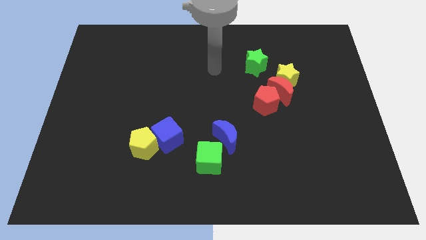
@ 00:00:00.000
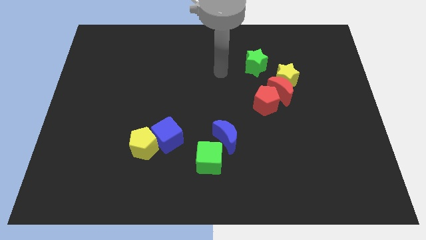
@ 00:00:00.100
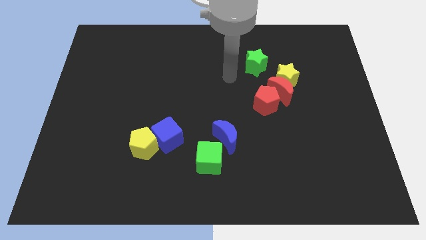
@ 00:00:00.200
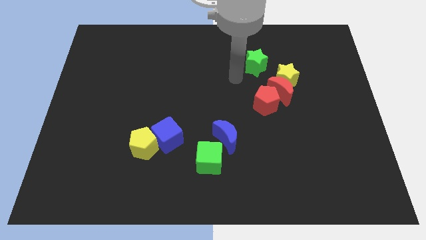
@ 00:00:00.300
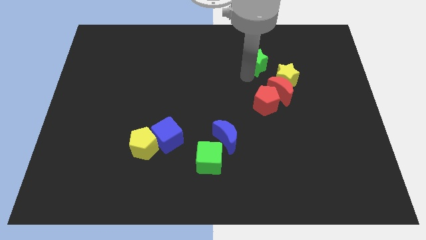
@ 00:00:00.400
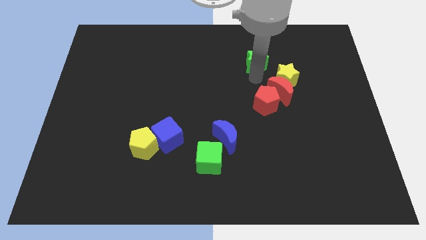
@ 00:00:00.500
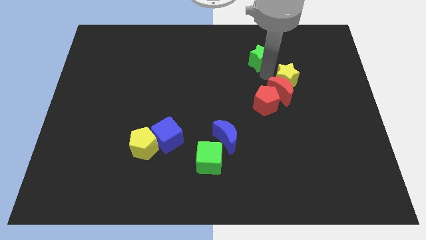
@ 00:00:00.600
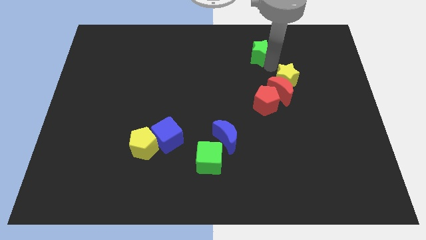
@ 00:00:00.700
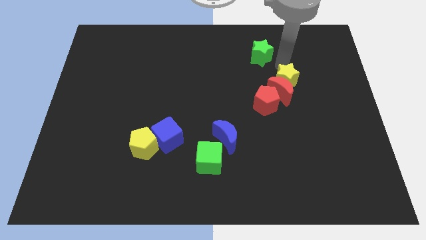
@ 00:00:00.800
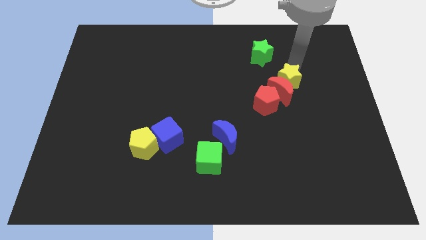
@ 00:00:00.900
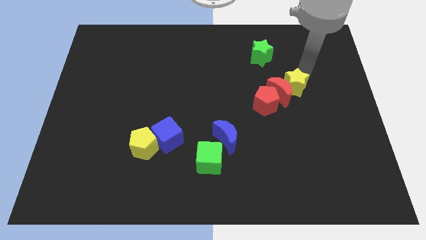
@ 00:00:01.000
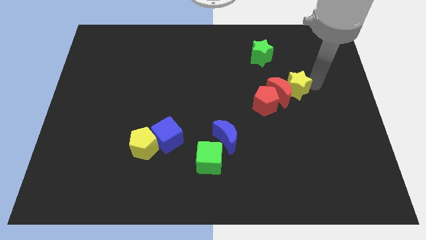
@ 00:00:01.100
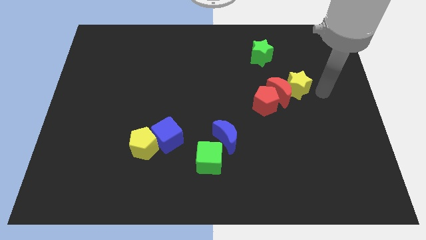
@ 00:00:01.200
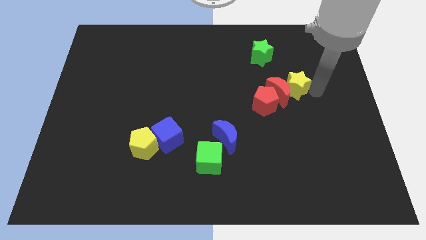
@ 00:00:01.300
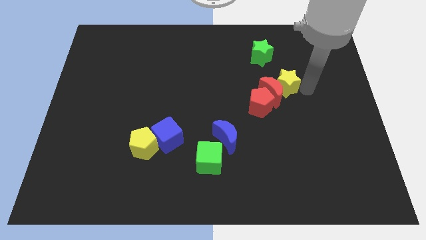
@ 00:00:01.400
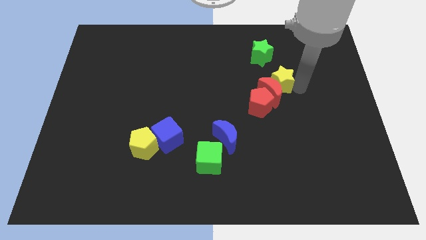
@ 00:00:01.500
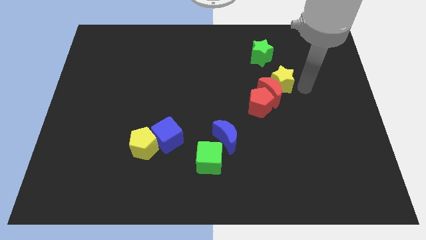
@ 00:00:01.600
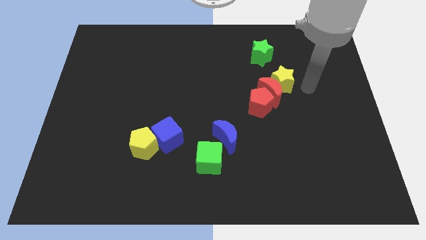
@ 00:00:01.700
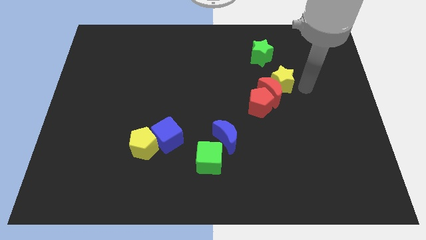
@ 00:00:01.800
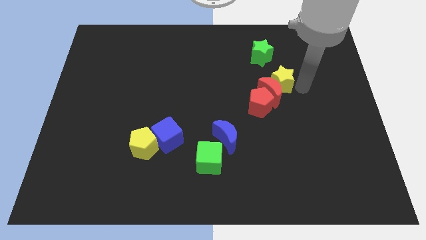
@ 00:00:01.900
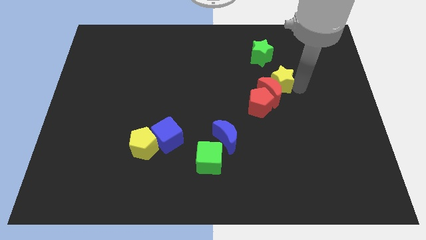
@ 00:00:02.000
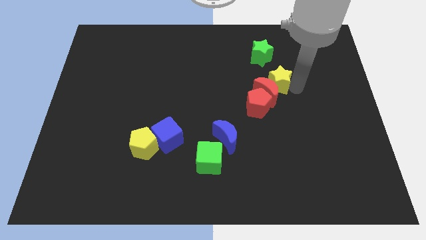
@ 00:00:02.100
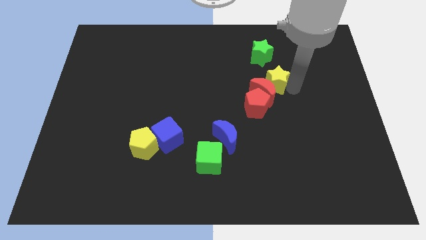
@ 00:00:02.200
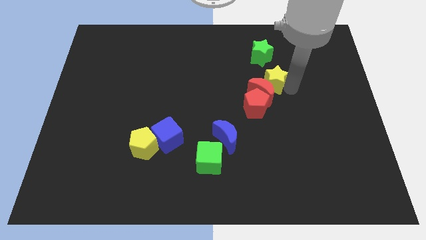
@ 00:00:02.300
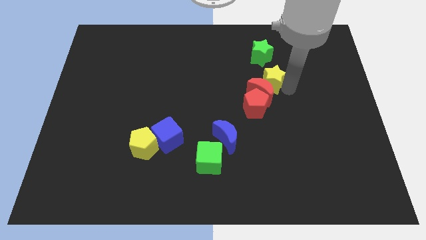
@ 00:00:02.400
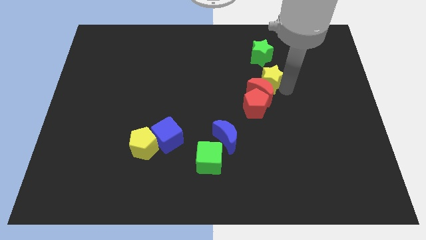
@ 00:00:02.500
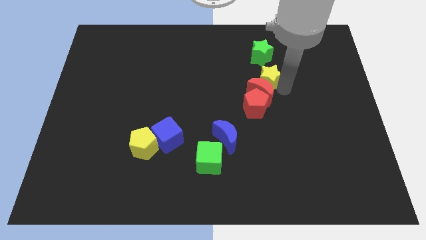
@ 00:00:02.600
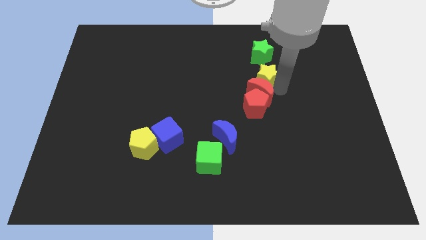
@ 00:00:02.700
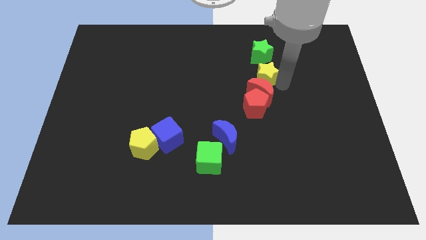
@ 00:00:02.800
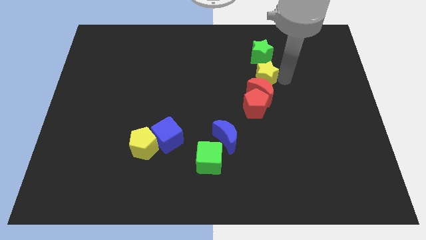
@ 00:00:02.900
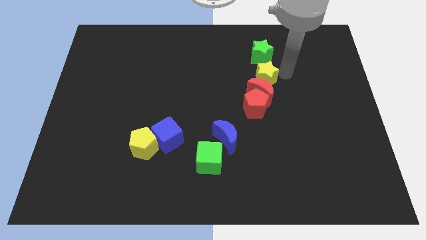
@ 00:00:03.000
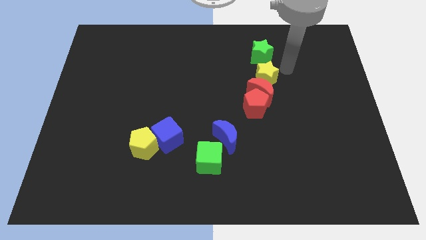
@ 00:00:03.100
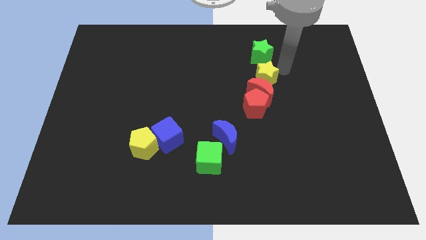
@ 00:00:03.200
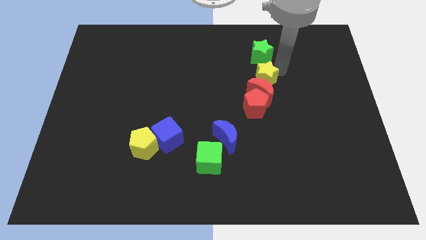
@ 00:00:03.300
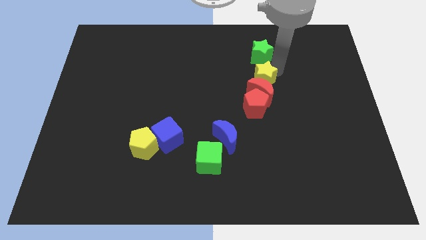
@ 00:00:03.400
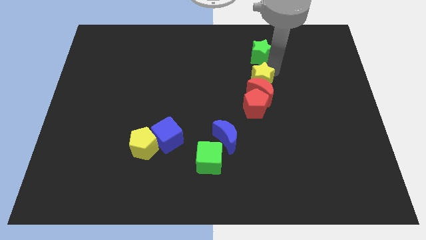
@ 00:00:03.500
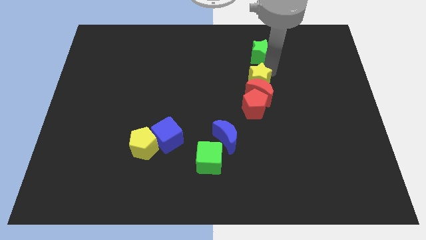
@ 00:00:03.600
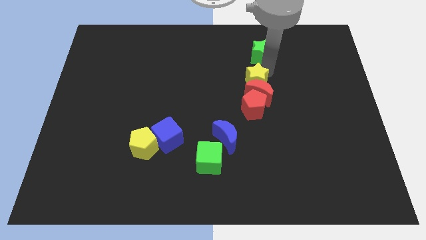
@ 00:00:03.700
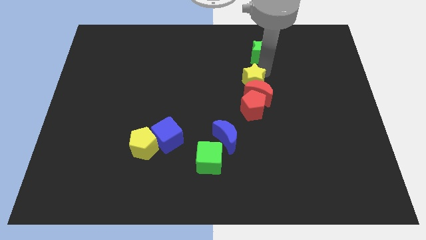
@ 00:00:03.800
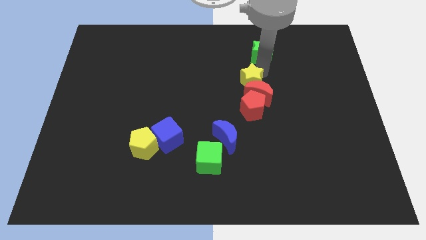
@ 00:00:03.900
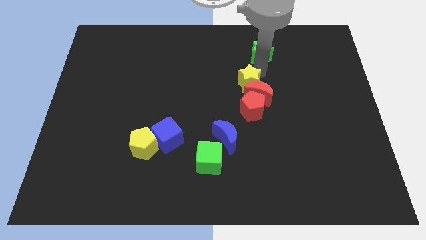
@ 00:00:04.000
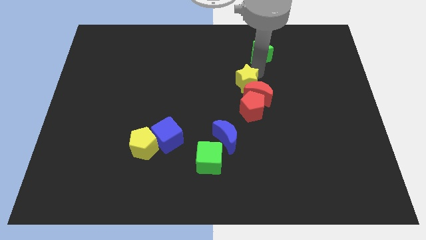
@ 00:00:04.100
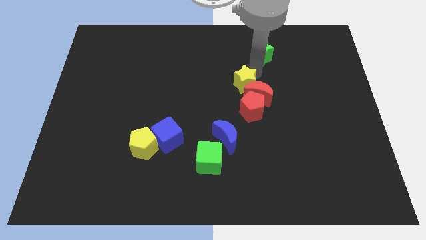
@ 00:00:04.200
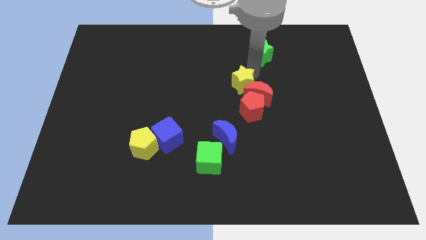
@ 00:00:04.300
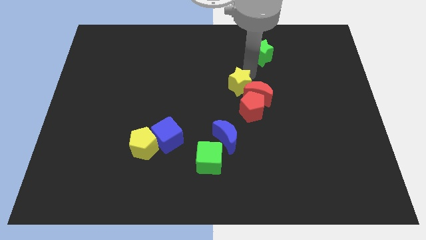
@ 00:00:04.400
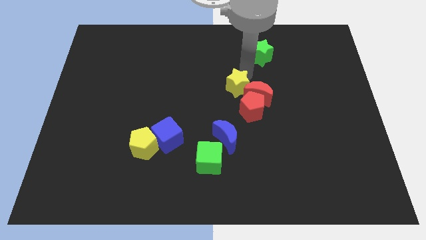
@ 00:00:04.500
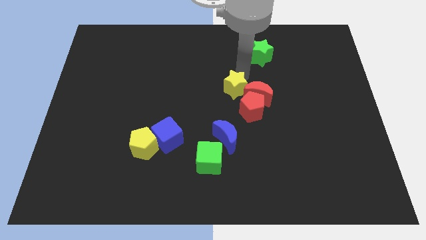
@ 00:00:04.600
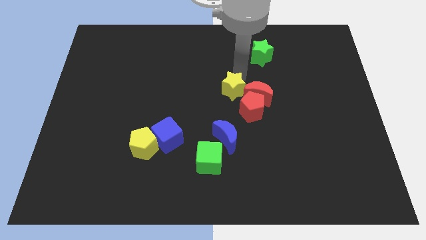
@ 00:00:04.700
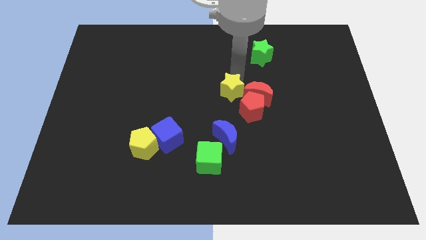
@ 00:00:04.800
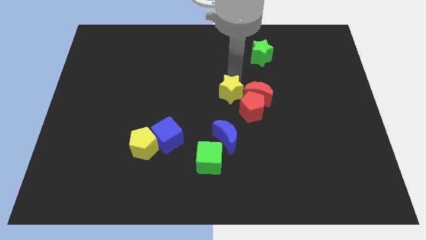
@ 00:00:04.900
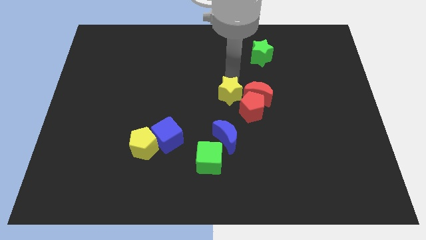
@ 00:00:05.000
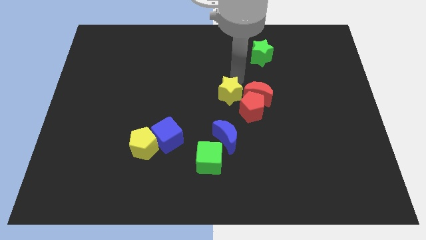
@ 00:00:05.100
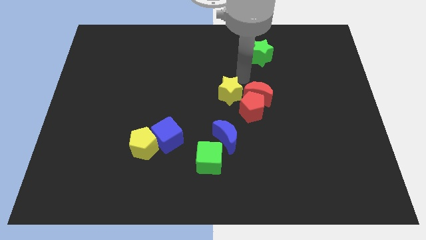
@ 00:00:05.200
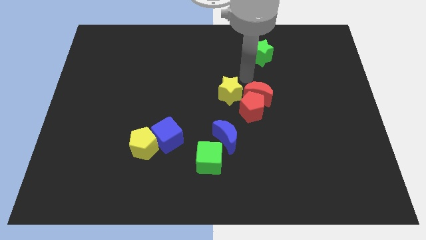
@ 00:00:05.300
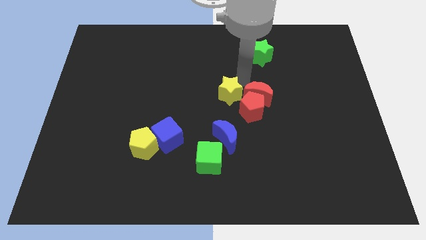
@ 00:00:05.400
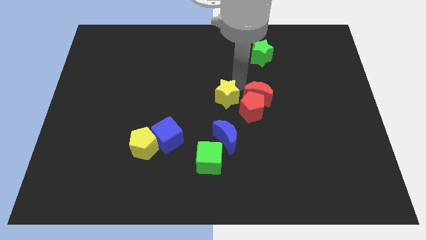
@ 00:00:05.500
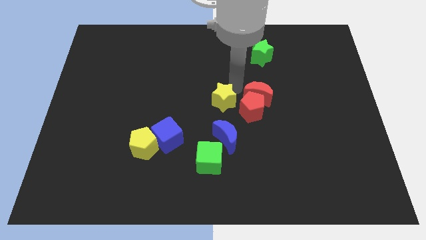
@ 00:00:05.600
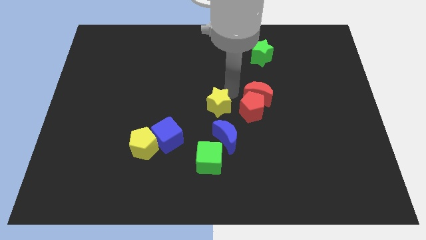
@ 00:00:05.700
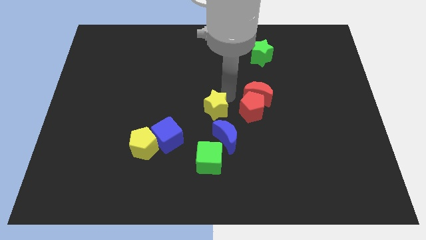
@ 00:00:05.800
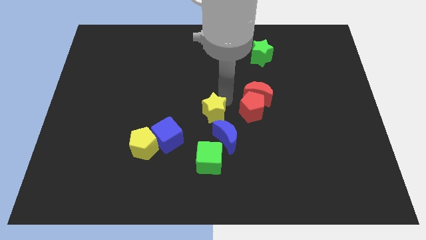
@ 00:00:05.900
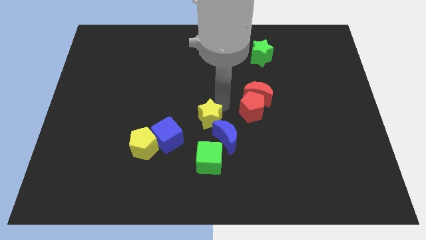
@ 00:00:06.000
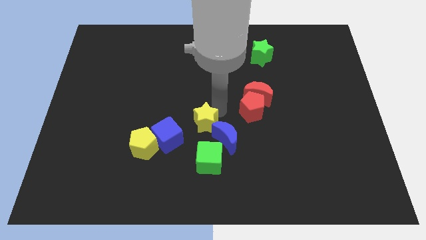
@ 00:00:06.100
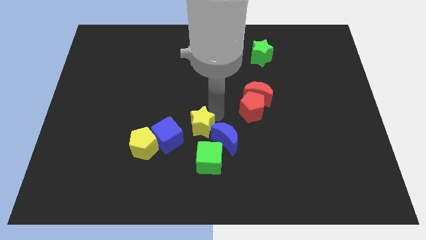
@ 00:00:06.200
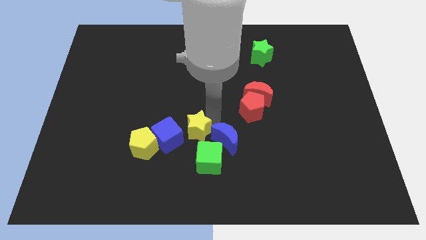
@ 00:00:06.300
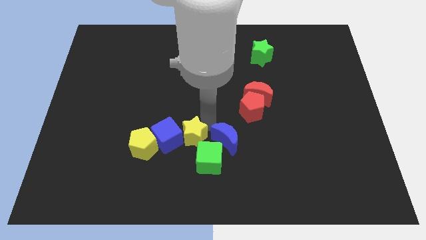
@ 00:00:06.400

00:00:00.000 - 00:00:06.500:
put the yellow star close to the blue cube
